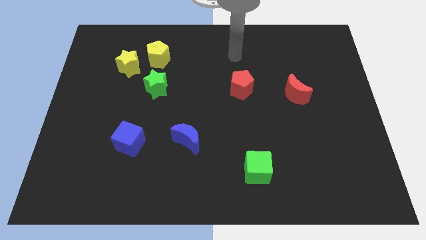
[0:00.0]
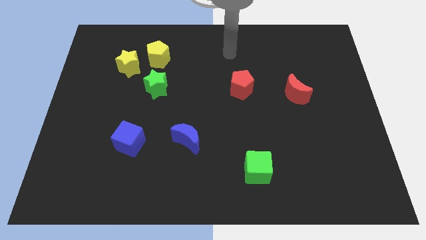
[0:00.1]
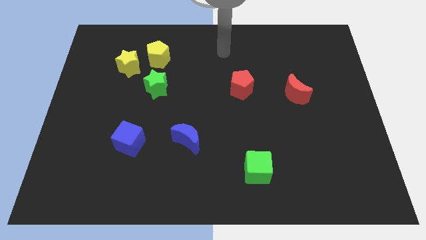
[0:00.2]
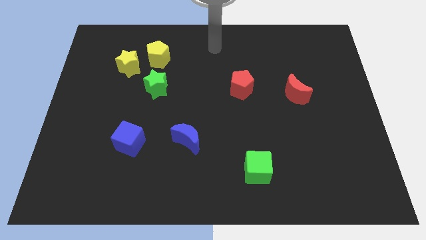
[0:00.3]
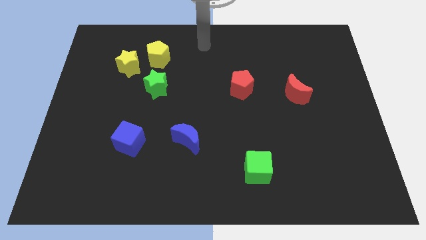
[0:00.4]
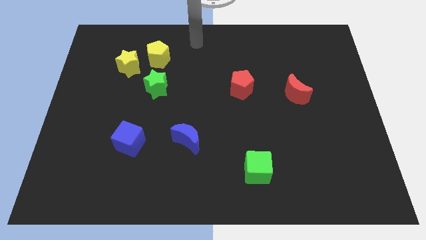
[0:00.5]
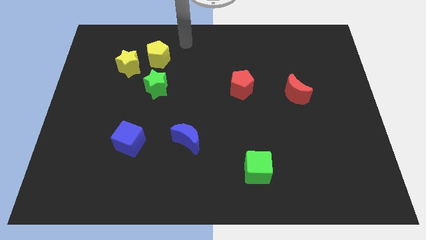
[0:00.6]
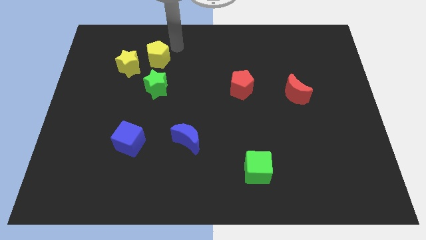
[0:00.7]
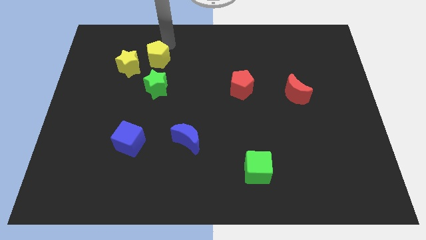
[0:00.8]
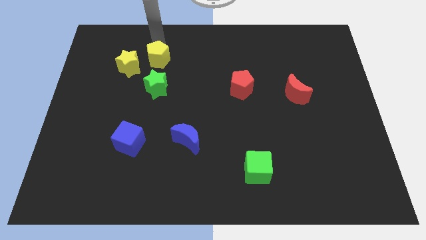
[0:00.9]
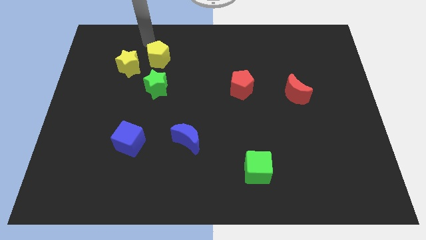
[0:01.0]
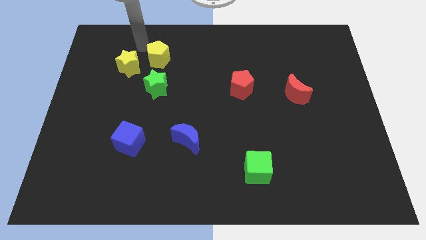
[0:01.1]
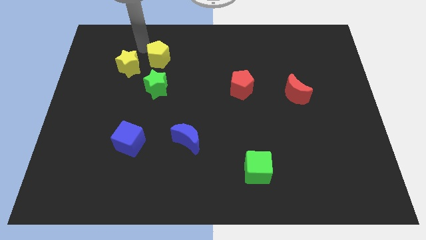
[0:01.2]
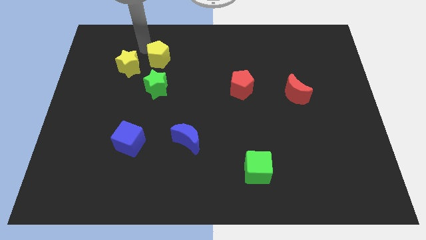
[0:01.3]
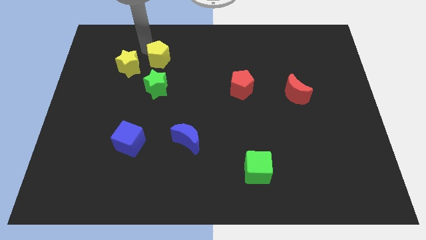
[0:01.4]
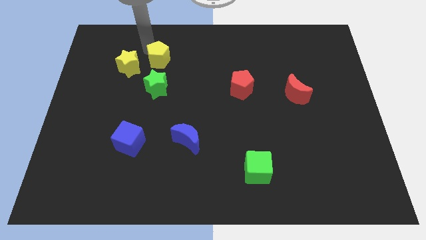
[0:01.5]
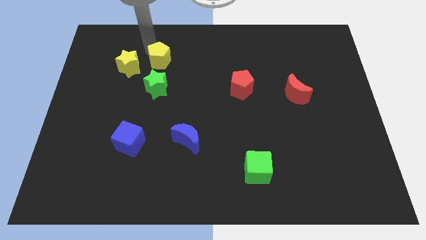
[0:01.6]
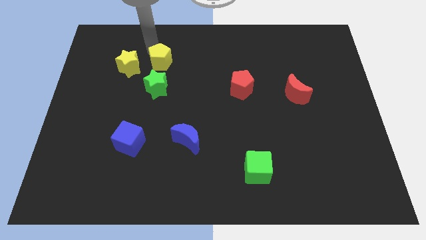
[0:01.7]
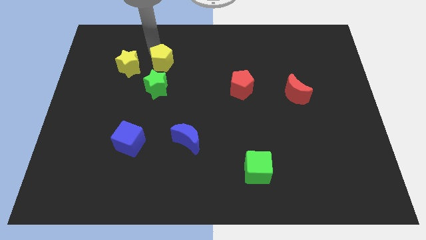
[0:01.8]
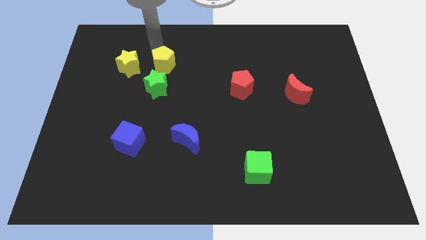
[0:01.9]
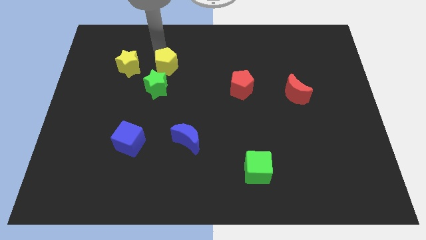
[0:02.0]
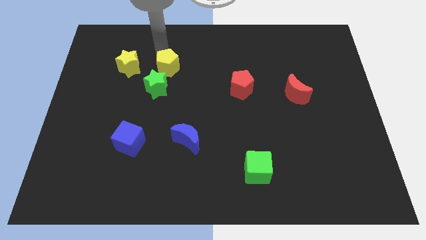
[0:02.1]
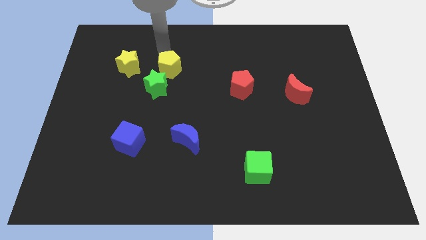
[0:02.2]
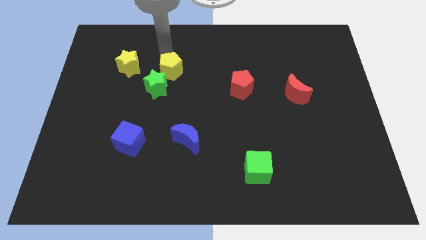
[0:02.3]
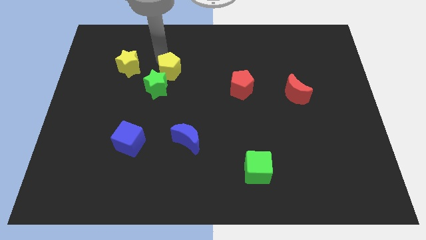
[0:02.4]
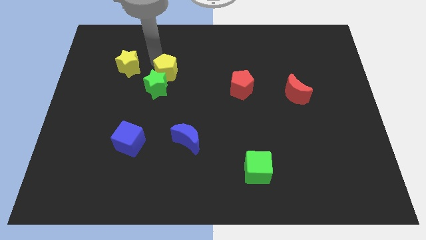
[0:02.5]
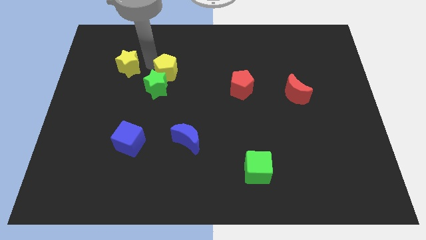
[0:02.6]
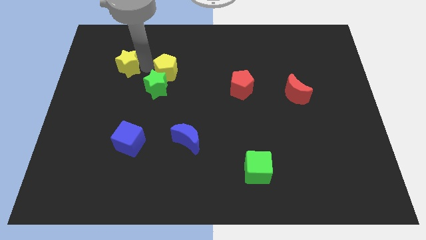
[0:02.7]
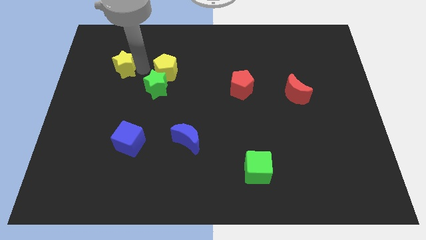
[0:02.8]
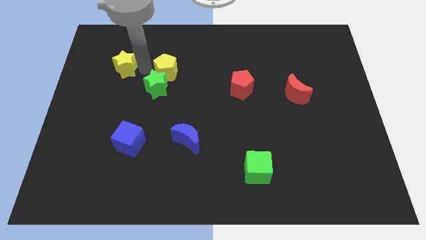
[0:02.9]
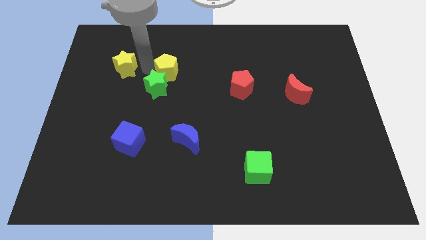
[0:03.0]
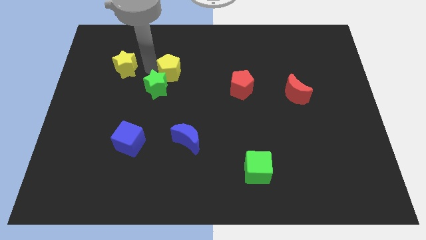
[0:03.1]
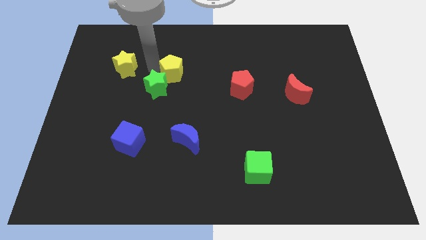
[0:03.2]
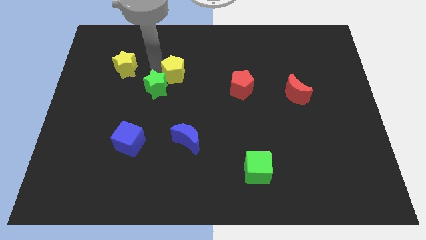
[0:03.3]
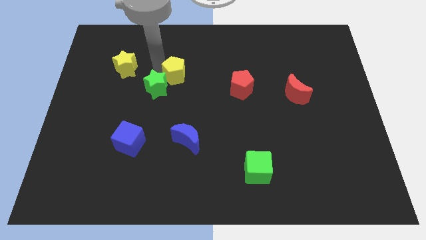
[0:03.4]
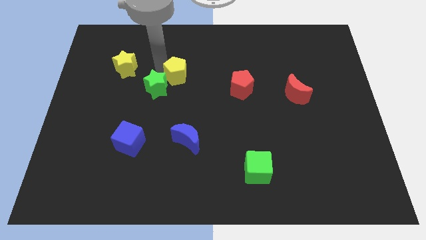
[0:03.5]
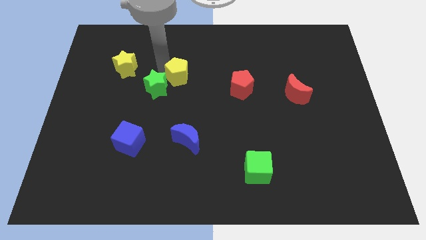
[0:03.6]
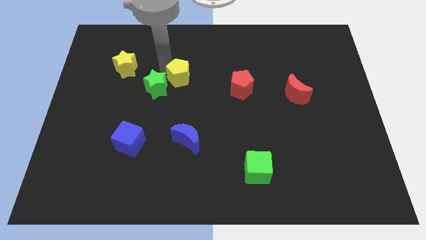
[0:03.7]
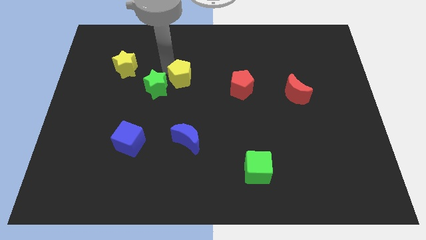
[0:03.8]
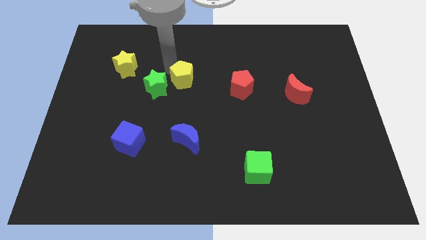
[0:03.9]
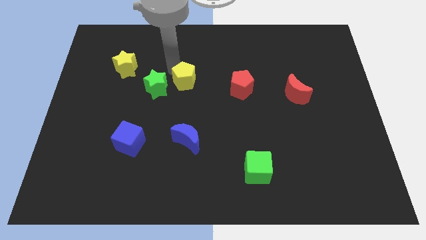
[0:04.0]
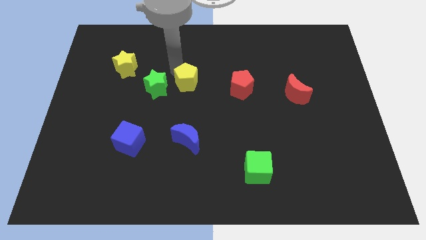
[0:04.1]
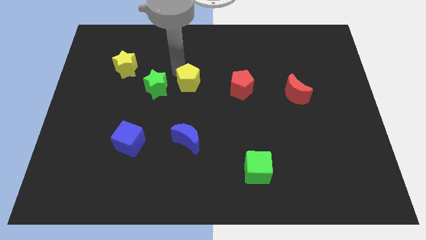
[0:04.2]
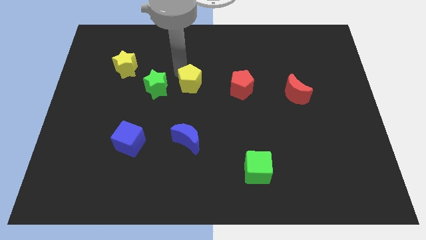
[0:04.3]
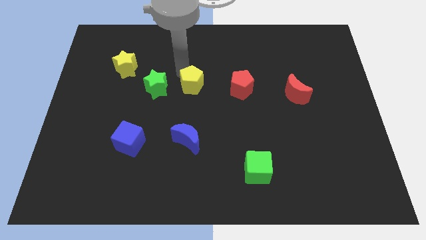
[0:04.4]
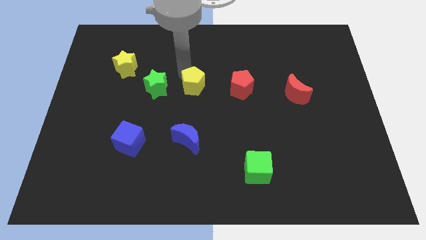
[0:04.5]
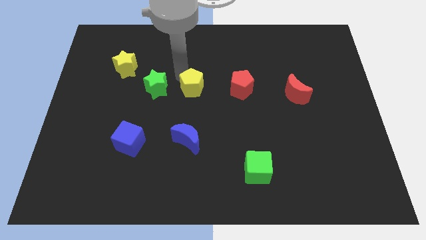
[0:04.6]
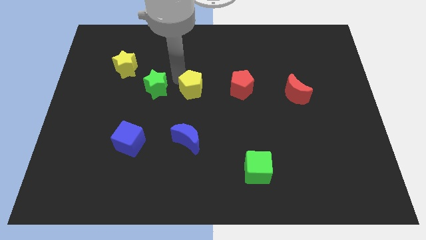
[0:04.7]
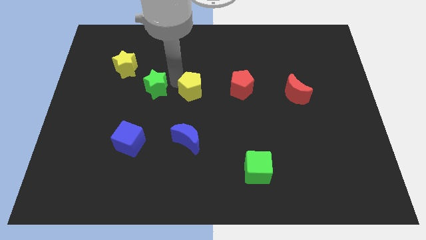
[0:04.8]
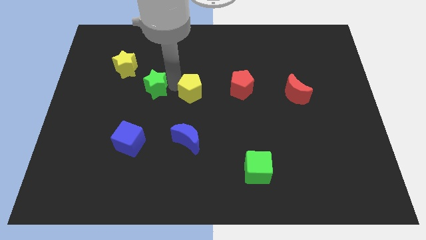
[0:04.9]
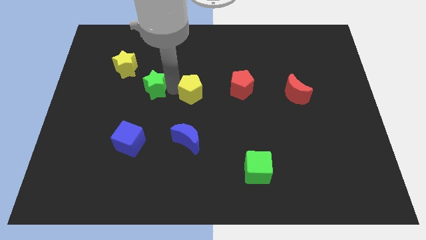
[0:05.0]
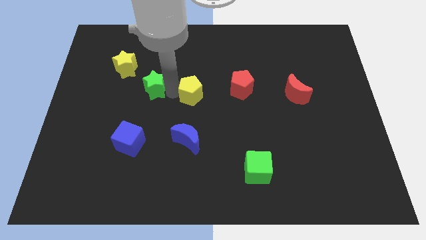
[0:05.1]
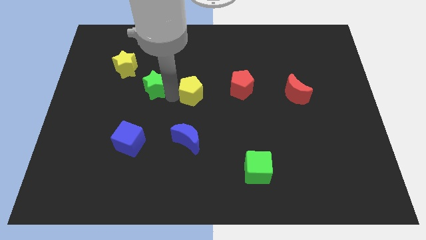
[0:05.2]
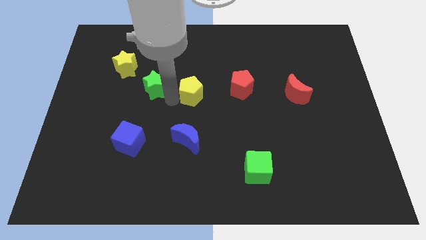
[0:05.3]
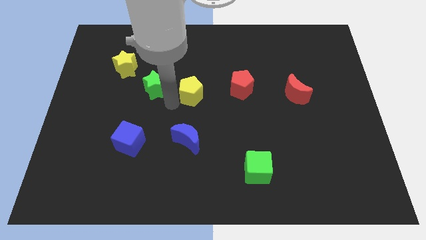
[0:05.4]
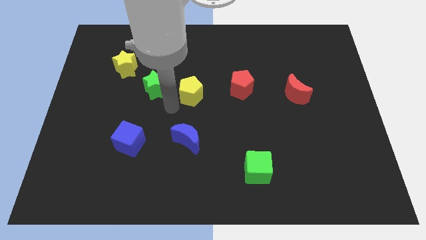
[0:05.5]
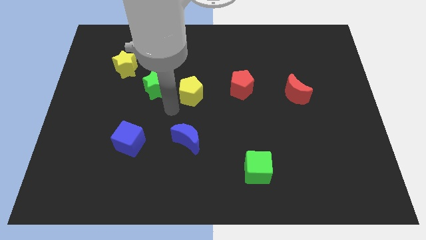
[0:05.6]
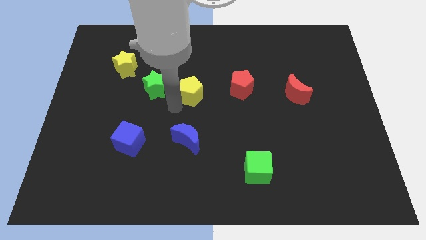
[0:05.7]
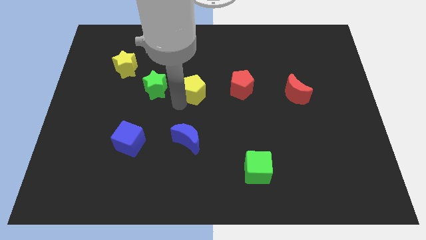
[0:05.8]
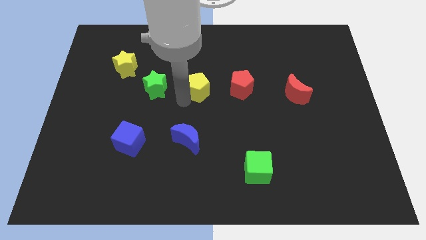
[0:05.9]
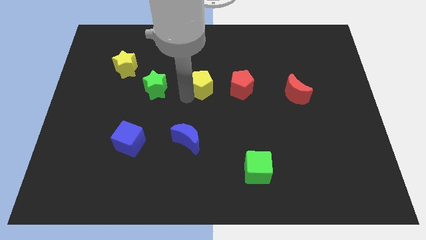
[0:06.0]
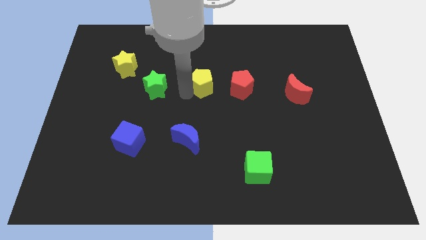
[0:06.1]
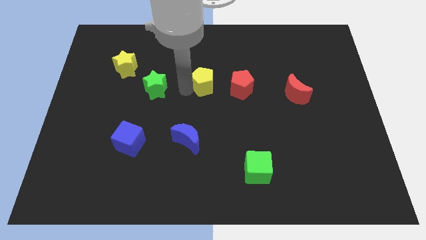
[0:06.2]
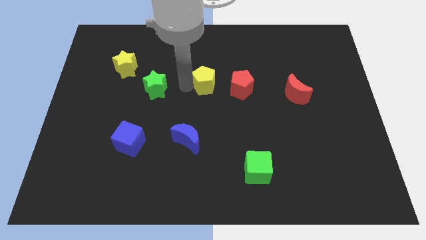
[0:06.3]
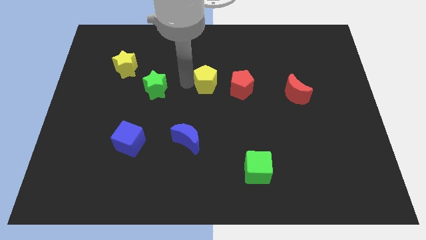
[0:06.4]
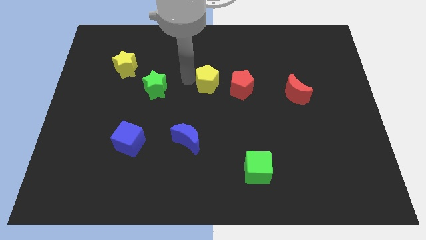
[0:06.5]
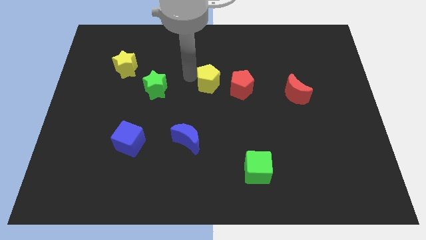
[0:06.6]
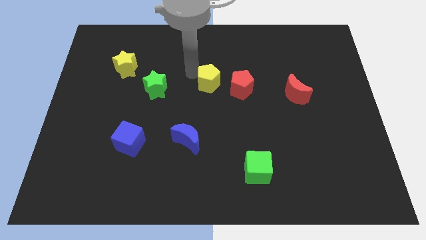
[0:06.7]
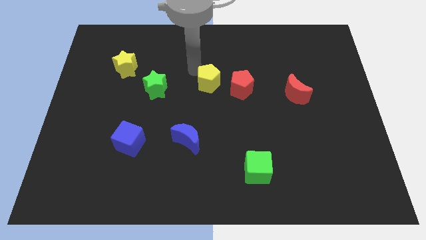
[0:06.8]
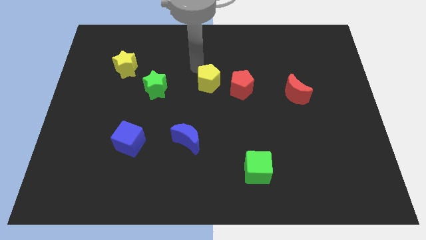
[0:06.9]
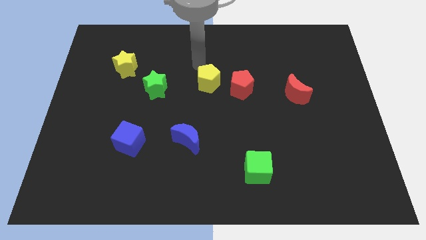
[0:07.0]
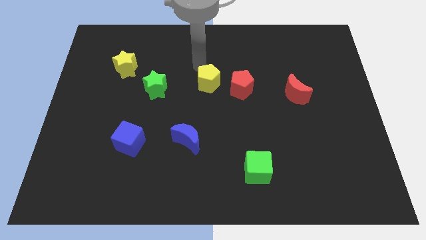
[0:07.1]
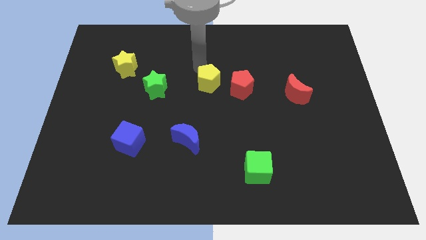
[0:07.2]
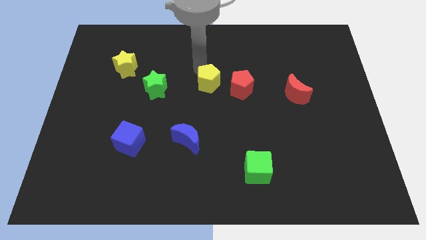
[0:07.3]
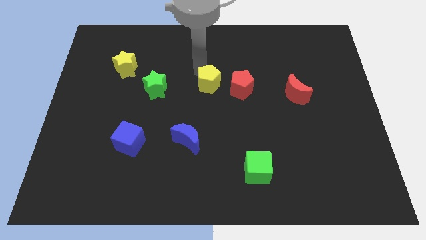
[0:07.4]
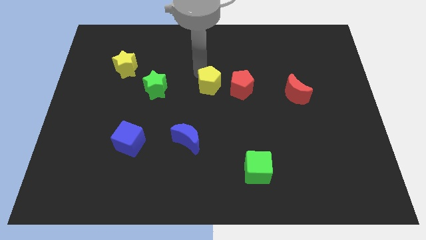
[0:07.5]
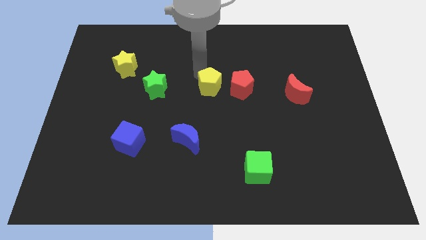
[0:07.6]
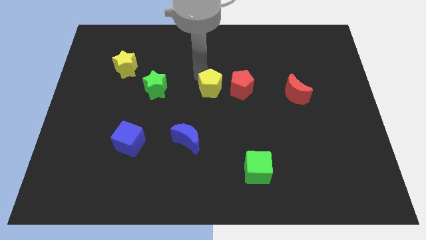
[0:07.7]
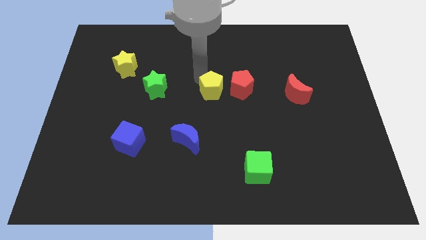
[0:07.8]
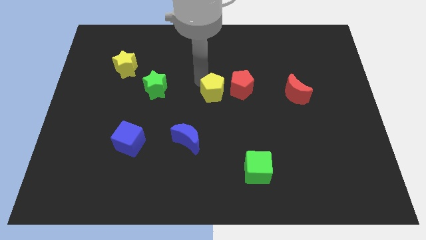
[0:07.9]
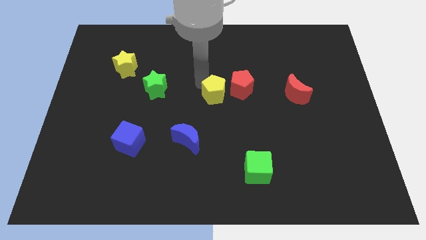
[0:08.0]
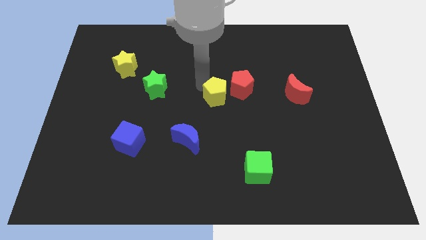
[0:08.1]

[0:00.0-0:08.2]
push the yellow pentagon down and to the right diagonally
